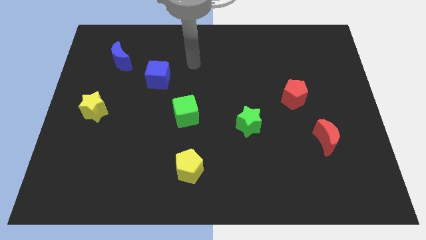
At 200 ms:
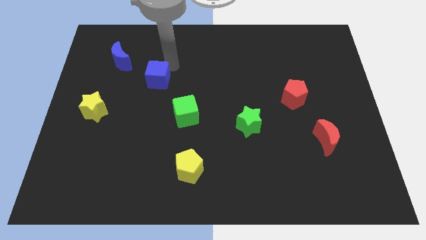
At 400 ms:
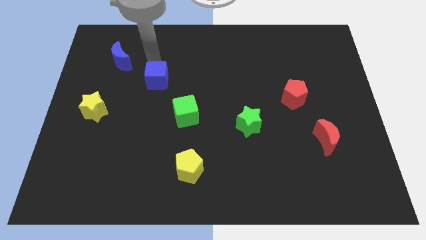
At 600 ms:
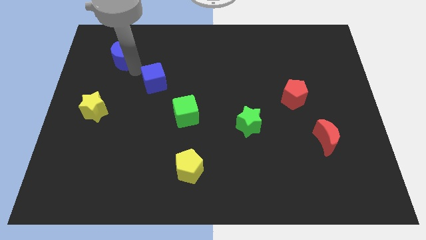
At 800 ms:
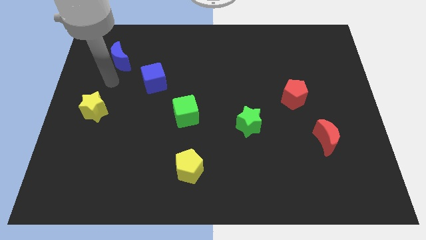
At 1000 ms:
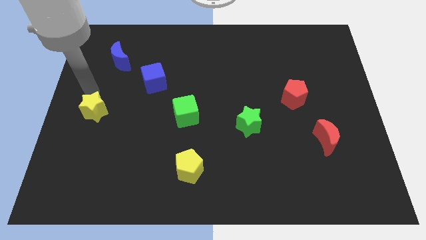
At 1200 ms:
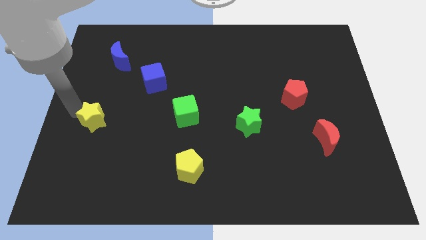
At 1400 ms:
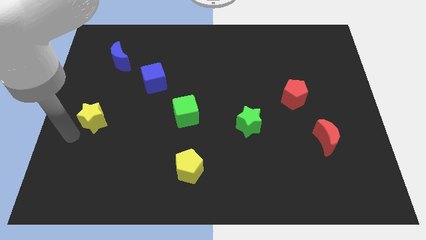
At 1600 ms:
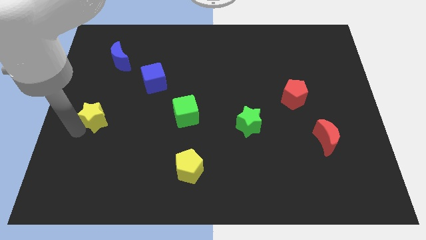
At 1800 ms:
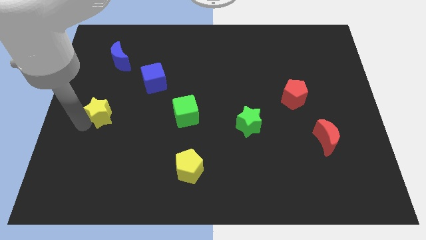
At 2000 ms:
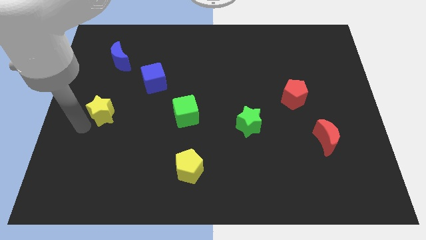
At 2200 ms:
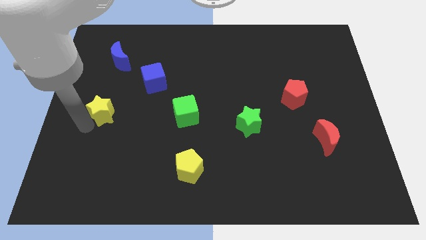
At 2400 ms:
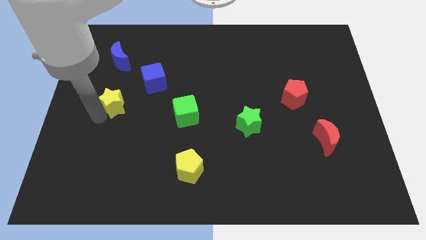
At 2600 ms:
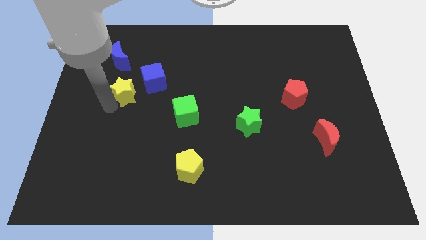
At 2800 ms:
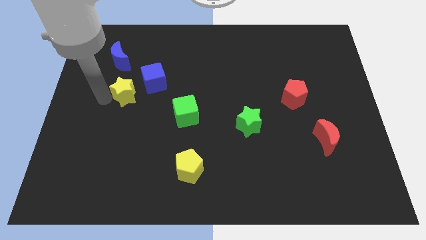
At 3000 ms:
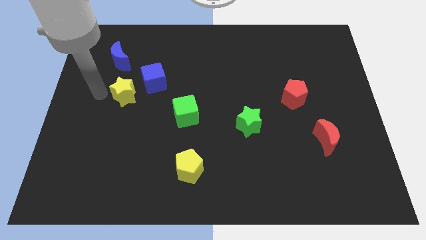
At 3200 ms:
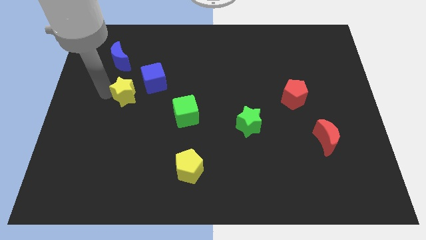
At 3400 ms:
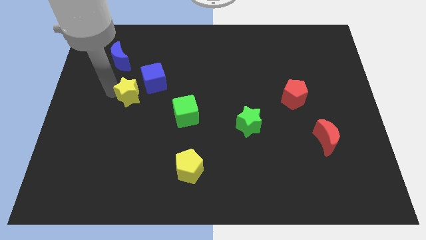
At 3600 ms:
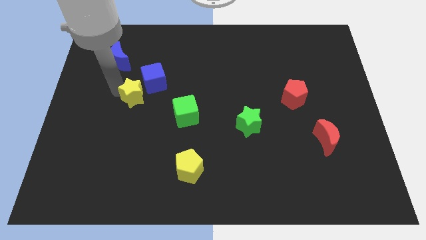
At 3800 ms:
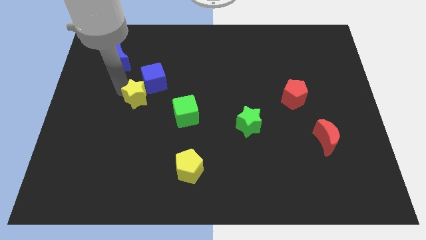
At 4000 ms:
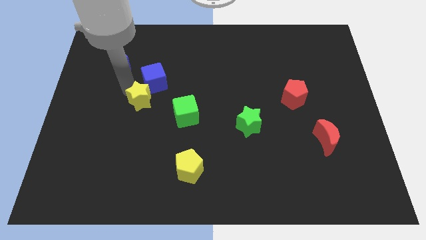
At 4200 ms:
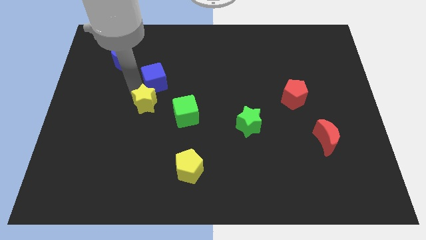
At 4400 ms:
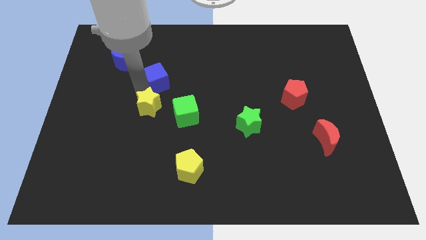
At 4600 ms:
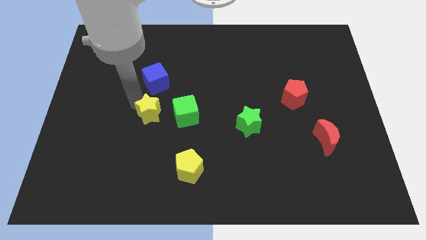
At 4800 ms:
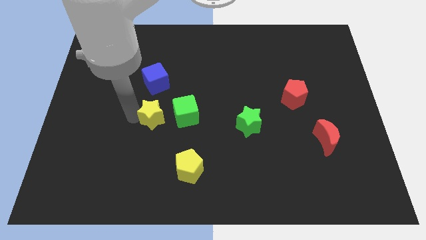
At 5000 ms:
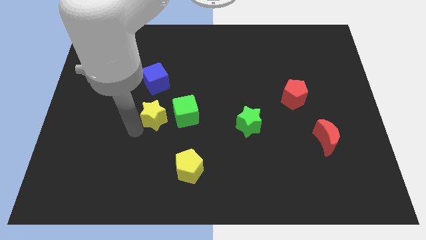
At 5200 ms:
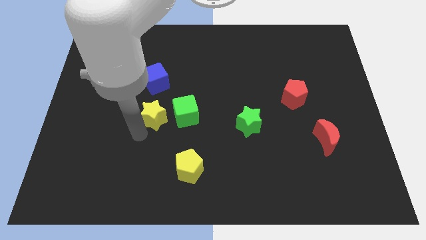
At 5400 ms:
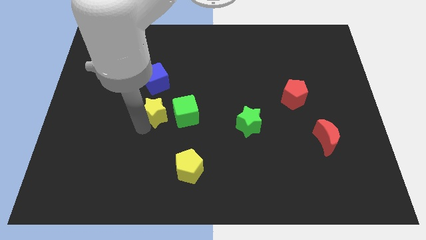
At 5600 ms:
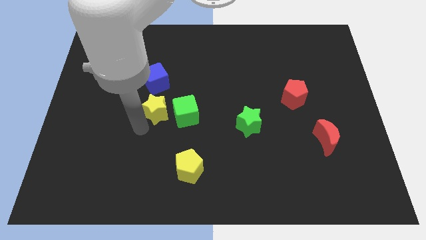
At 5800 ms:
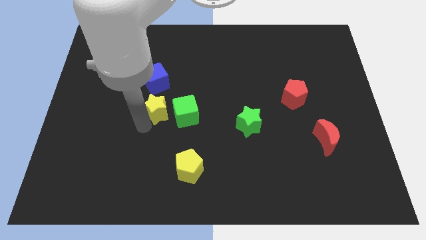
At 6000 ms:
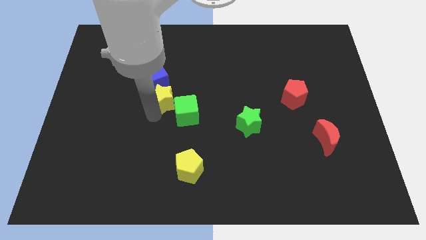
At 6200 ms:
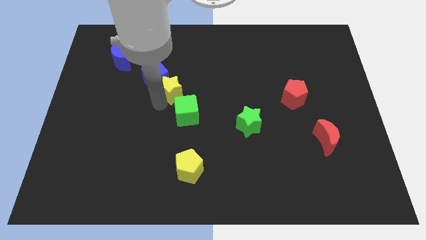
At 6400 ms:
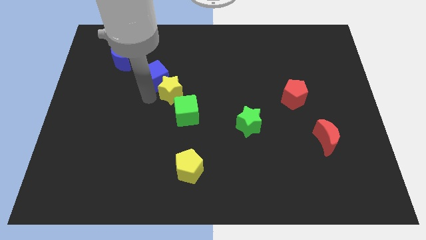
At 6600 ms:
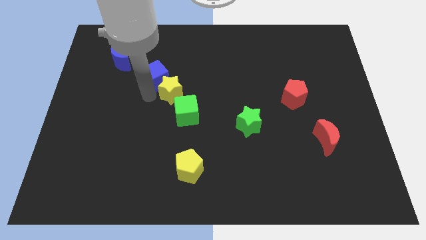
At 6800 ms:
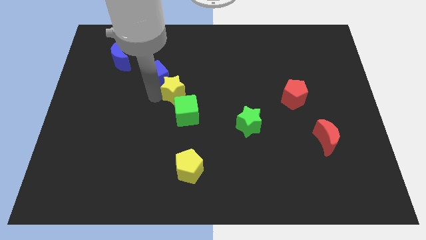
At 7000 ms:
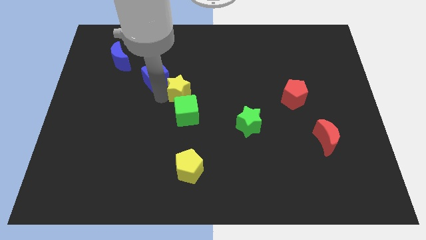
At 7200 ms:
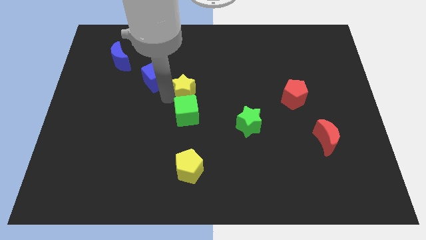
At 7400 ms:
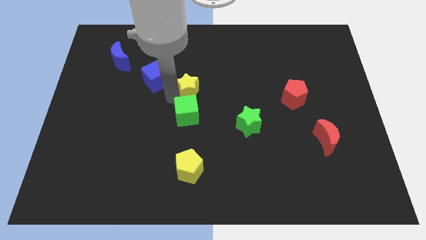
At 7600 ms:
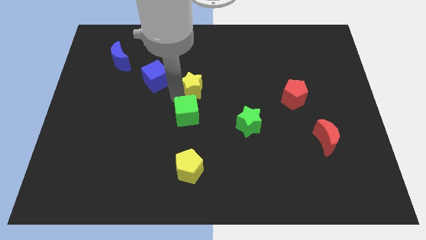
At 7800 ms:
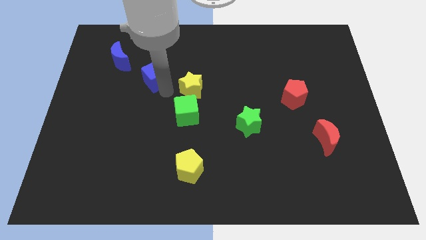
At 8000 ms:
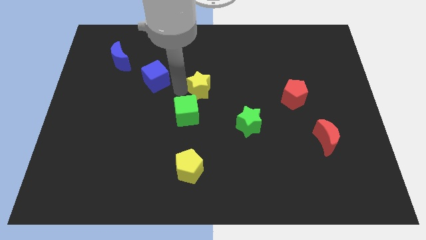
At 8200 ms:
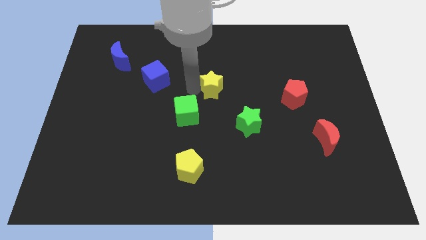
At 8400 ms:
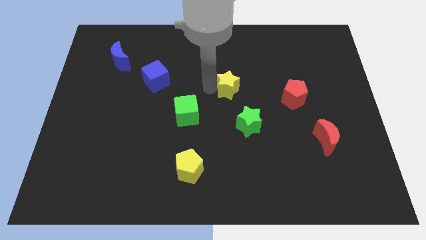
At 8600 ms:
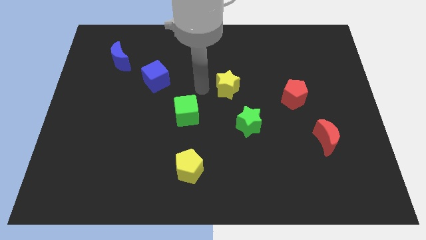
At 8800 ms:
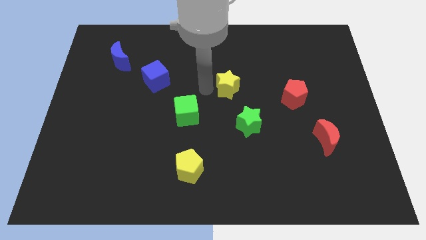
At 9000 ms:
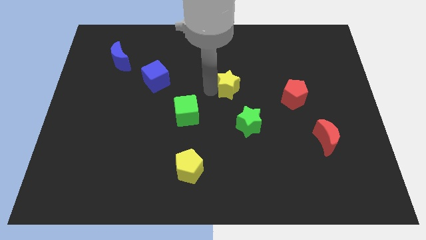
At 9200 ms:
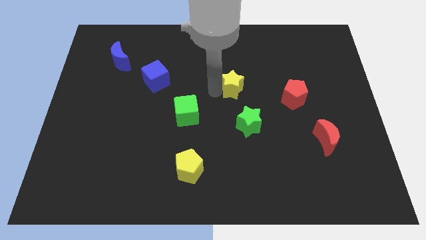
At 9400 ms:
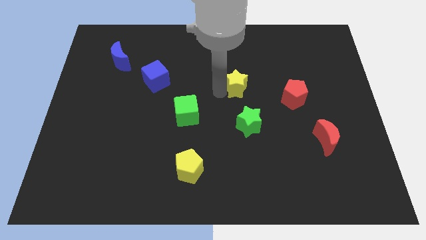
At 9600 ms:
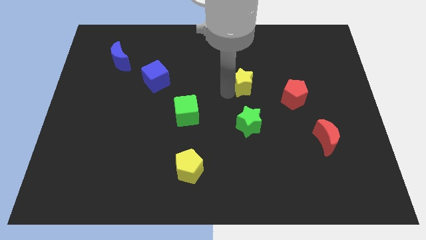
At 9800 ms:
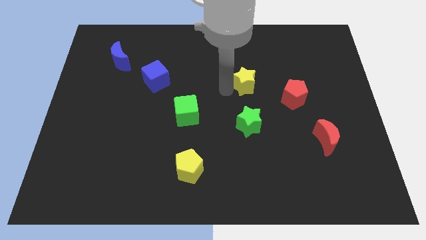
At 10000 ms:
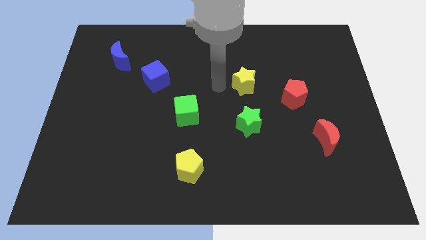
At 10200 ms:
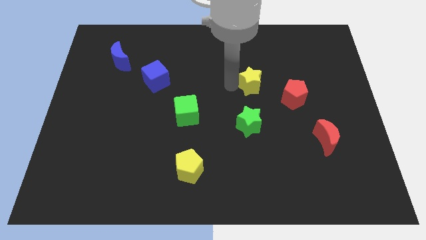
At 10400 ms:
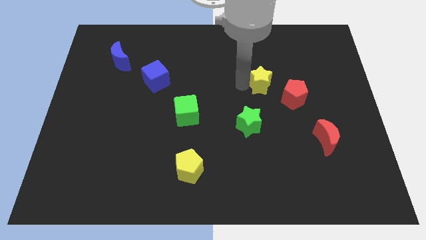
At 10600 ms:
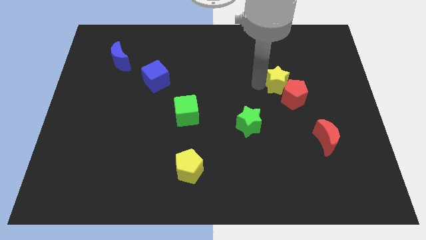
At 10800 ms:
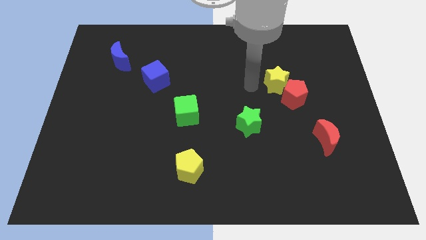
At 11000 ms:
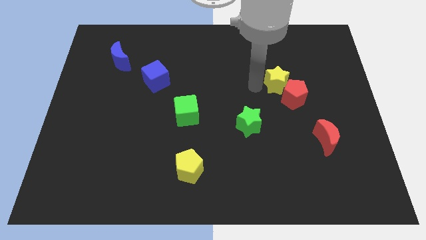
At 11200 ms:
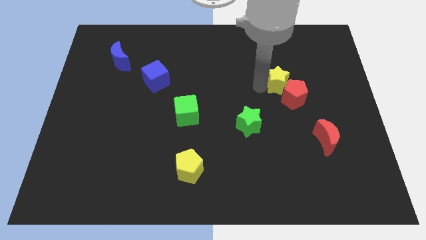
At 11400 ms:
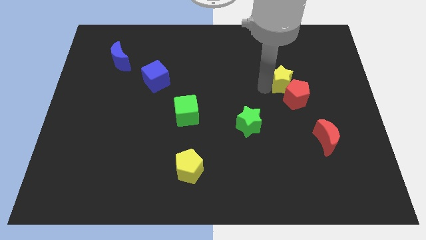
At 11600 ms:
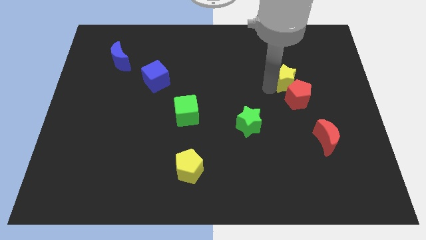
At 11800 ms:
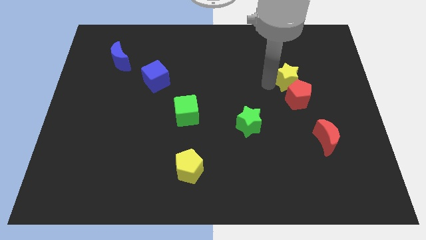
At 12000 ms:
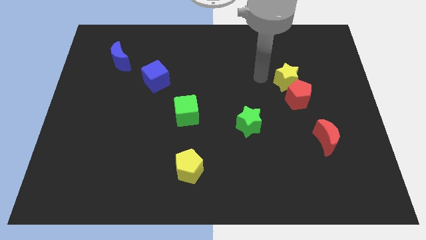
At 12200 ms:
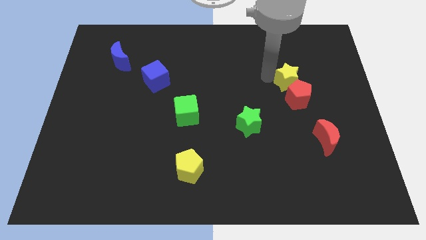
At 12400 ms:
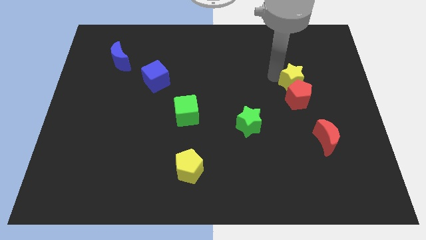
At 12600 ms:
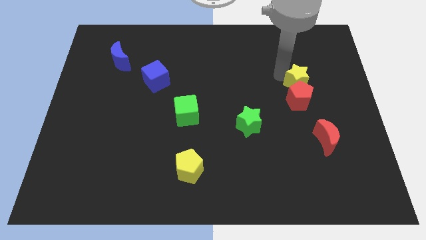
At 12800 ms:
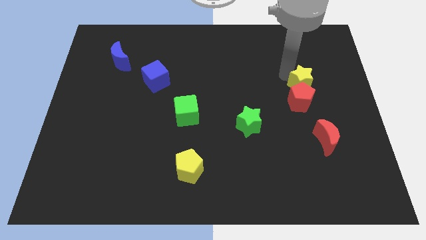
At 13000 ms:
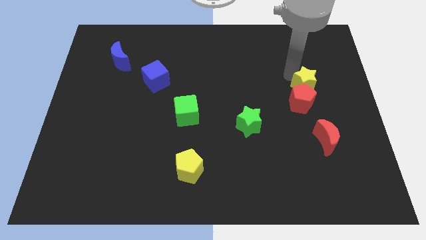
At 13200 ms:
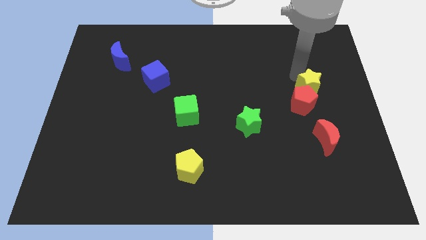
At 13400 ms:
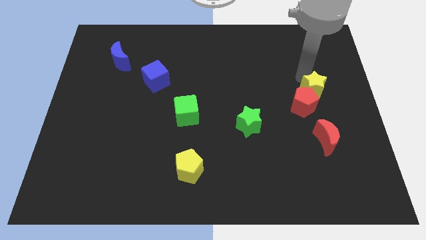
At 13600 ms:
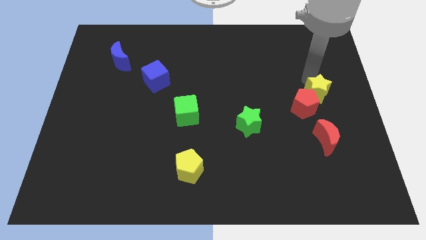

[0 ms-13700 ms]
put the yellow star to the center right
